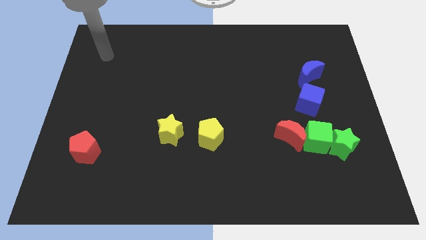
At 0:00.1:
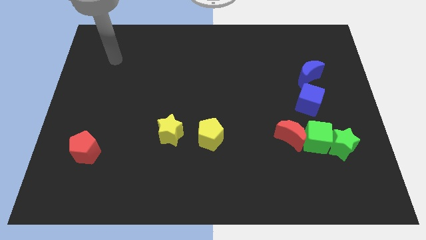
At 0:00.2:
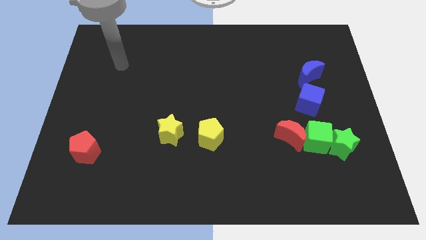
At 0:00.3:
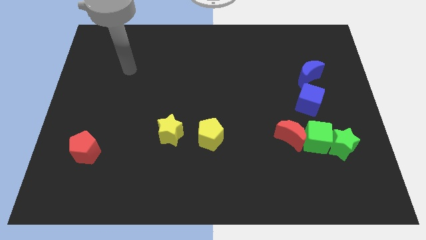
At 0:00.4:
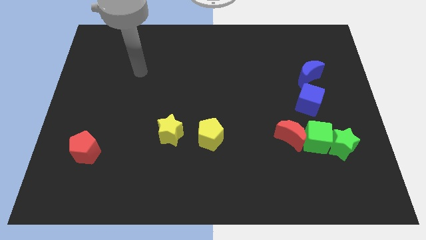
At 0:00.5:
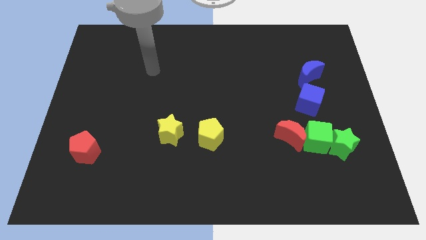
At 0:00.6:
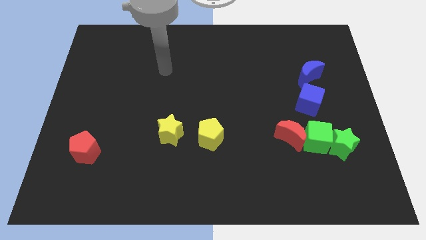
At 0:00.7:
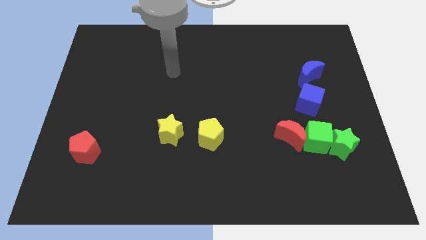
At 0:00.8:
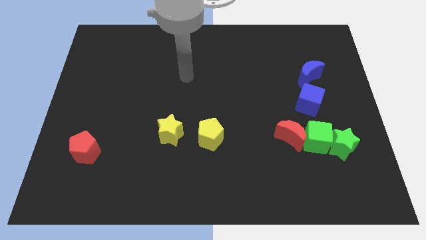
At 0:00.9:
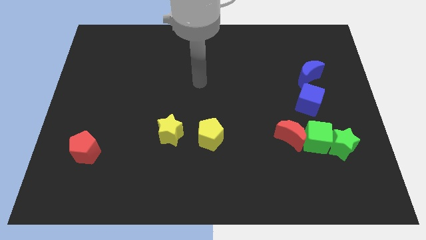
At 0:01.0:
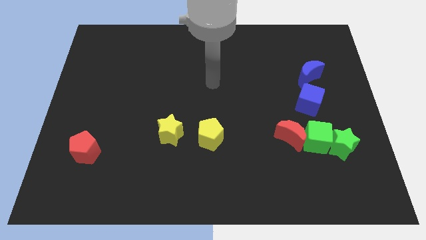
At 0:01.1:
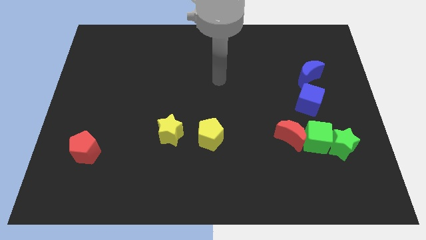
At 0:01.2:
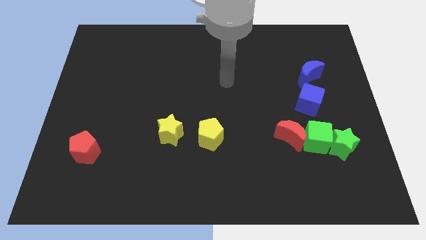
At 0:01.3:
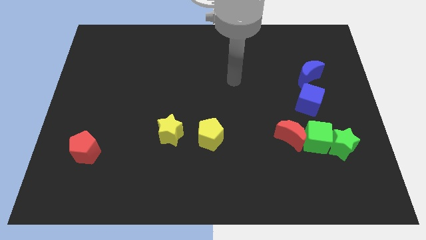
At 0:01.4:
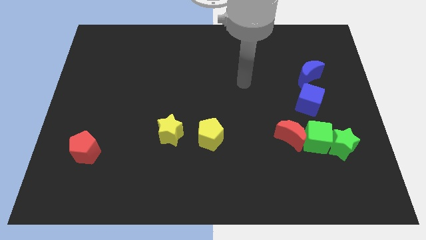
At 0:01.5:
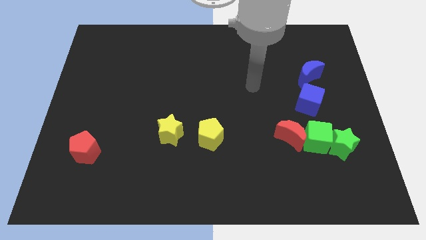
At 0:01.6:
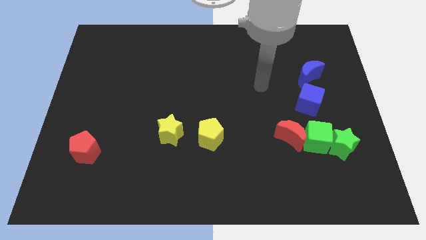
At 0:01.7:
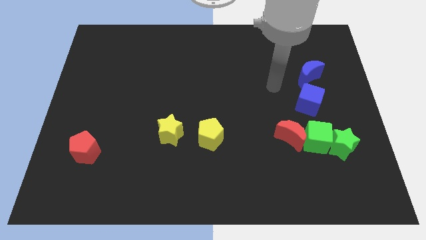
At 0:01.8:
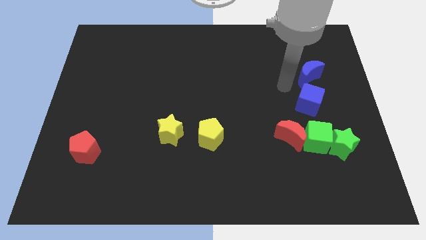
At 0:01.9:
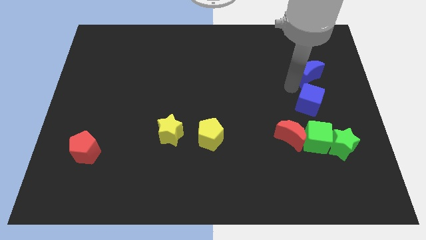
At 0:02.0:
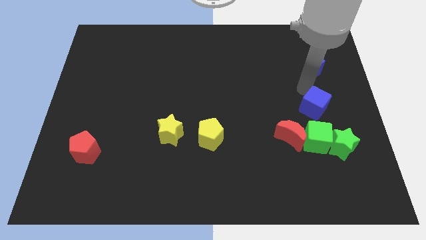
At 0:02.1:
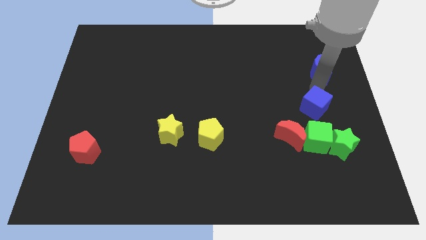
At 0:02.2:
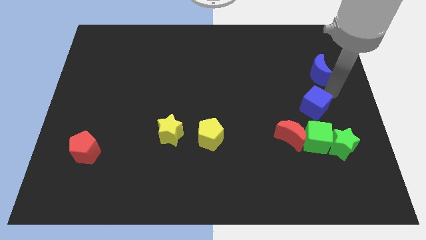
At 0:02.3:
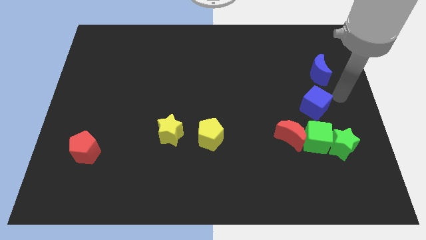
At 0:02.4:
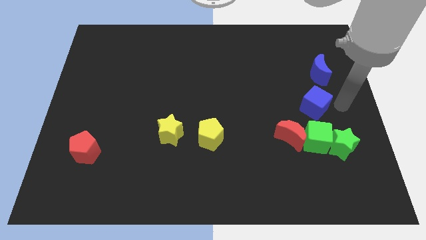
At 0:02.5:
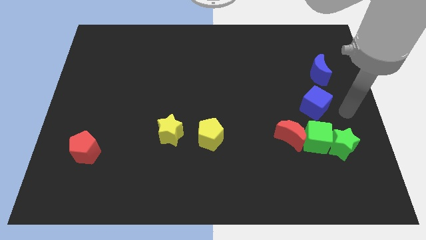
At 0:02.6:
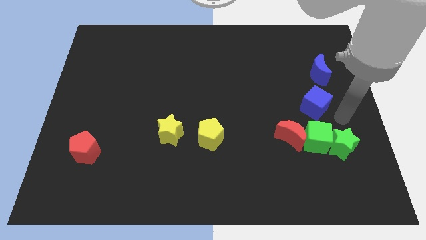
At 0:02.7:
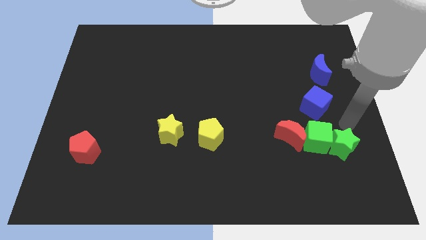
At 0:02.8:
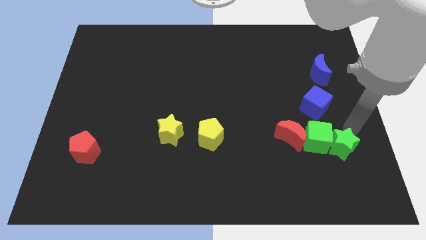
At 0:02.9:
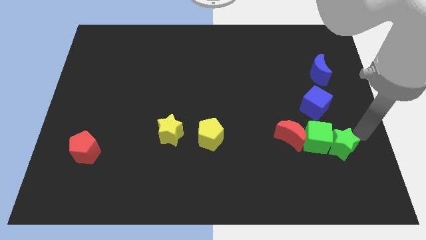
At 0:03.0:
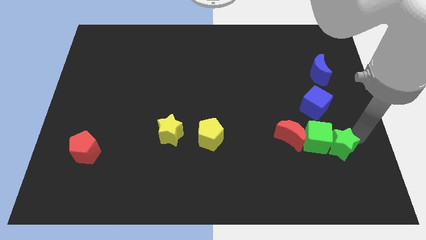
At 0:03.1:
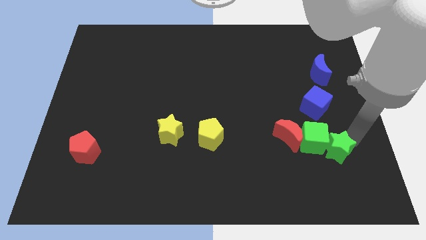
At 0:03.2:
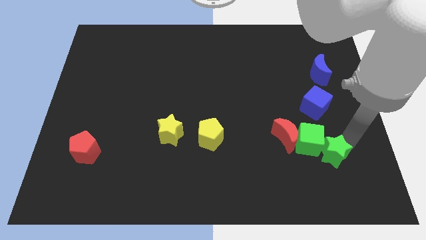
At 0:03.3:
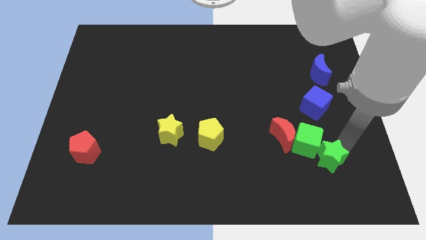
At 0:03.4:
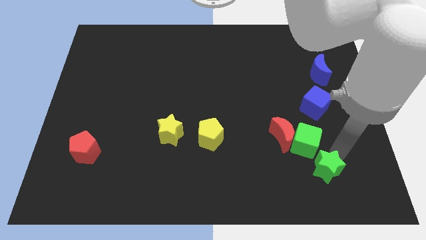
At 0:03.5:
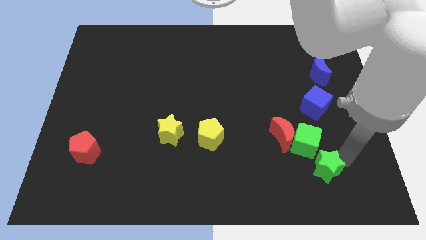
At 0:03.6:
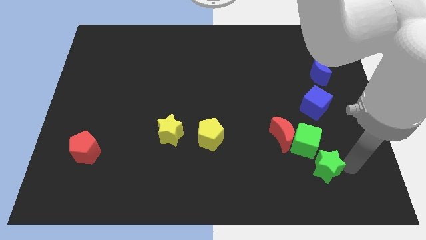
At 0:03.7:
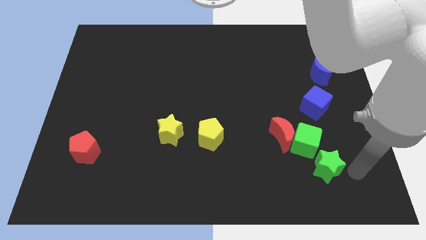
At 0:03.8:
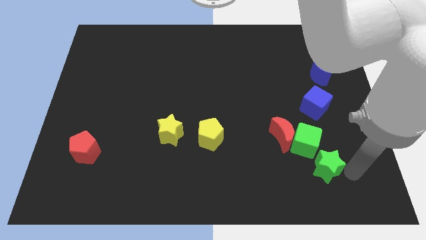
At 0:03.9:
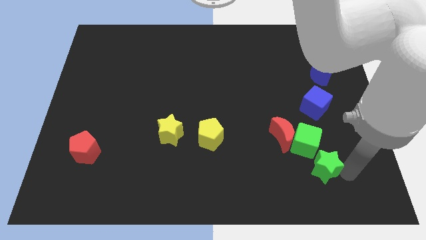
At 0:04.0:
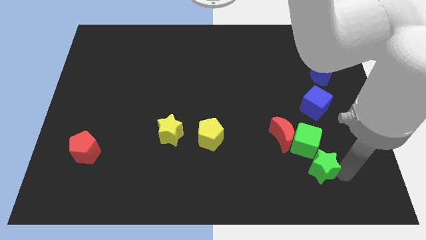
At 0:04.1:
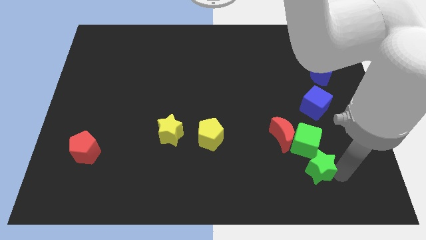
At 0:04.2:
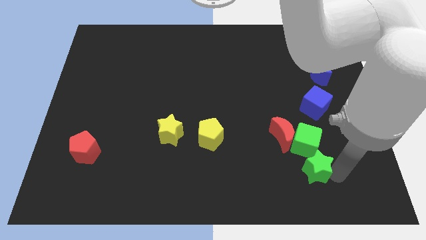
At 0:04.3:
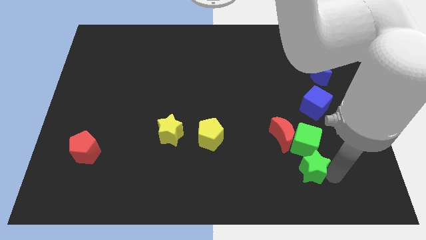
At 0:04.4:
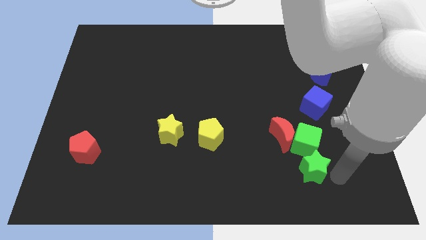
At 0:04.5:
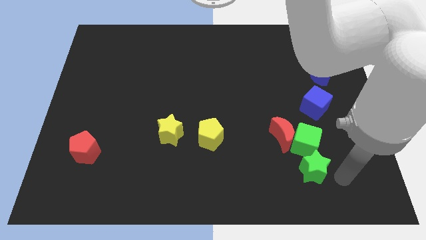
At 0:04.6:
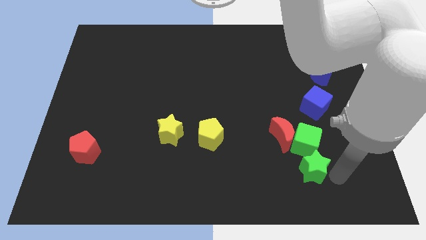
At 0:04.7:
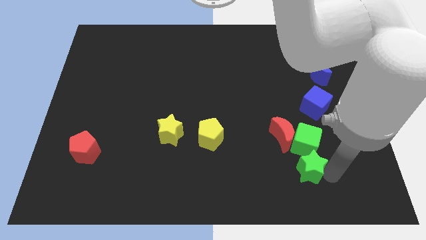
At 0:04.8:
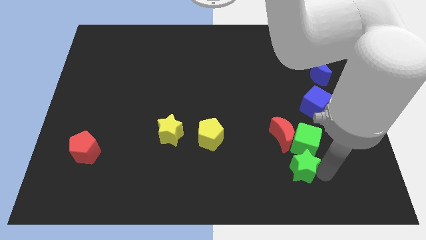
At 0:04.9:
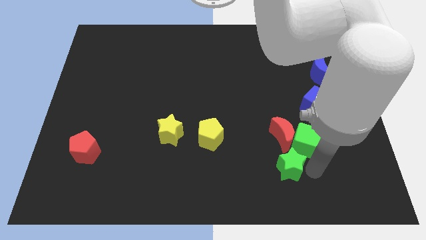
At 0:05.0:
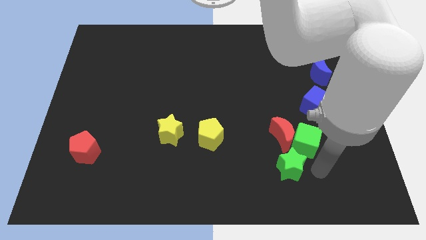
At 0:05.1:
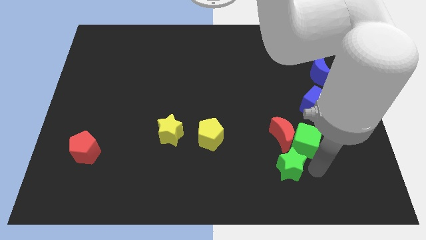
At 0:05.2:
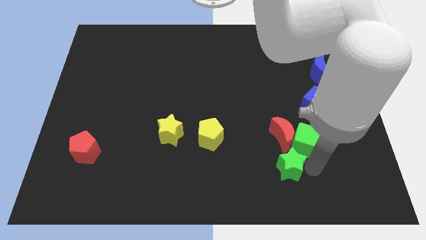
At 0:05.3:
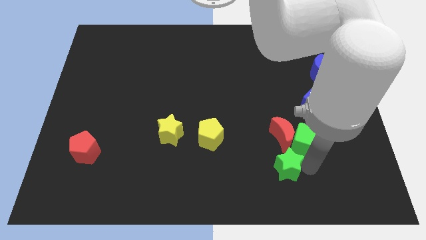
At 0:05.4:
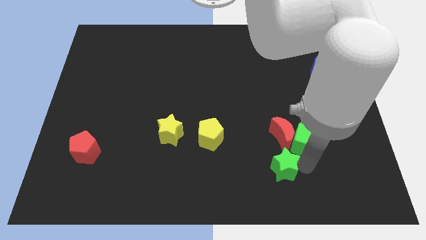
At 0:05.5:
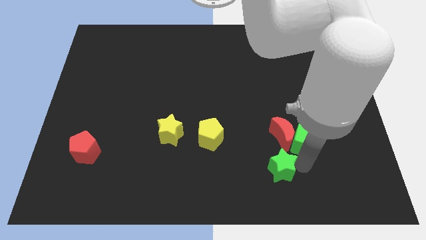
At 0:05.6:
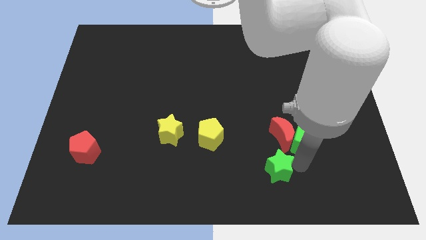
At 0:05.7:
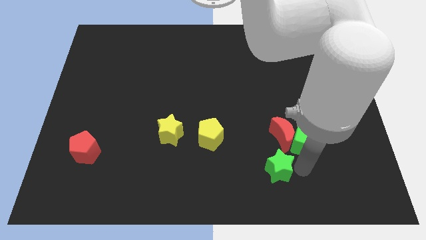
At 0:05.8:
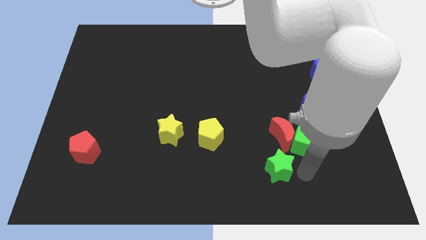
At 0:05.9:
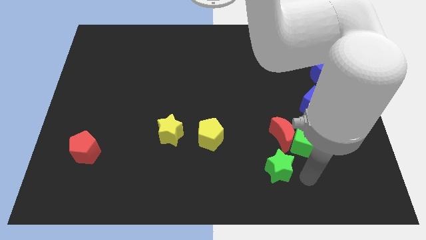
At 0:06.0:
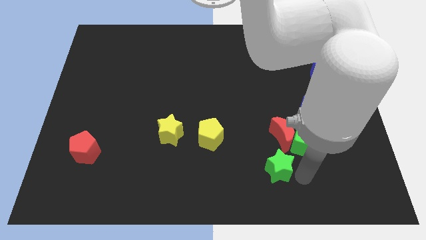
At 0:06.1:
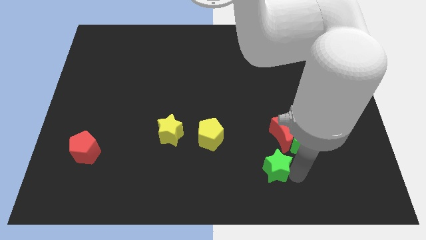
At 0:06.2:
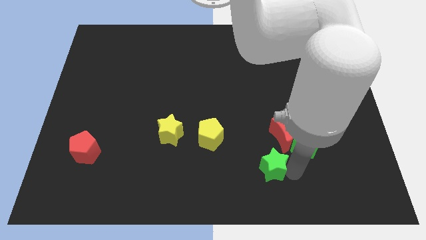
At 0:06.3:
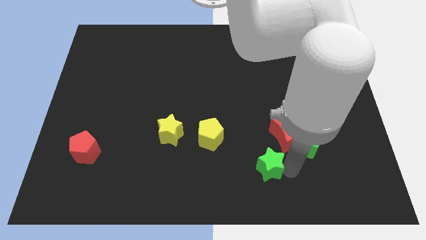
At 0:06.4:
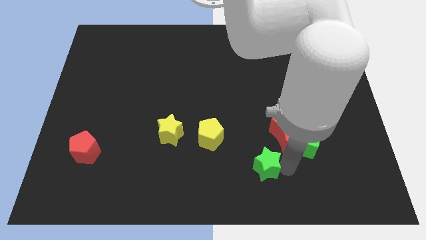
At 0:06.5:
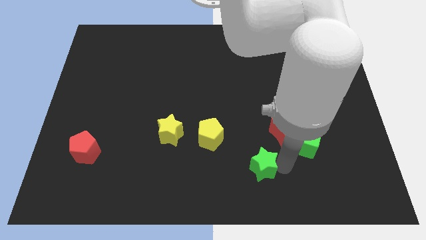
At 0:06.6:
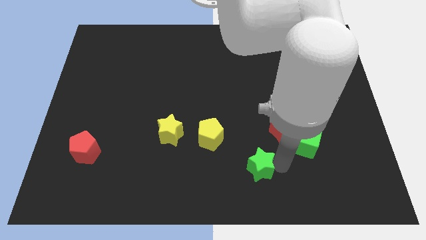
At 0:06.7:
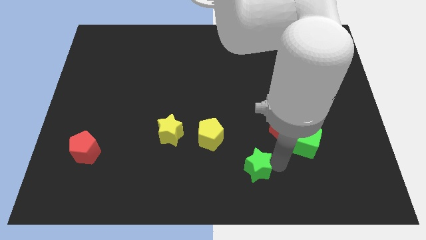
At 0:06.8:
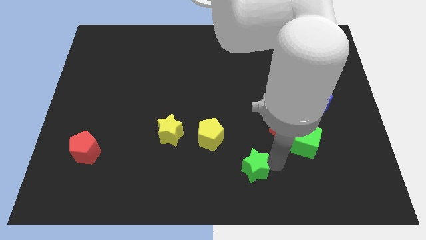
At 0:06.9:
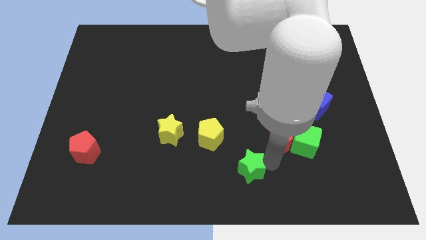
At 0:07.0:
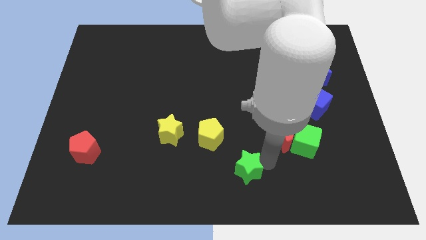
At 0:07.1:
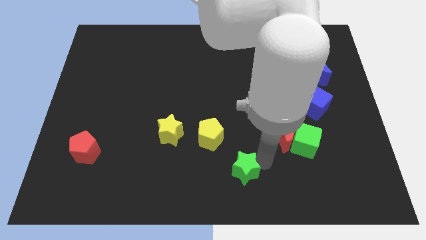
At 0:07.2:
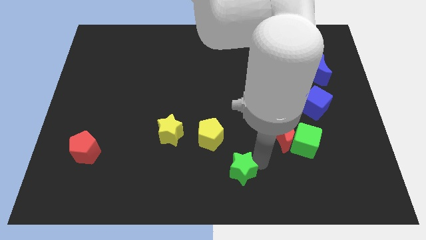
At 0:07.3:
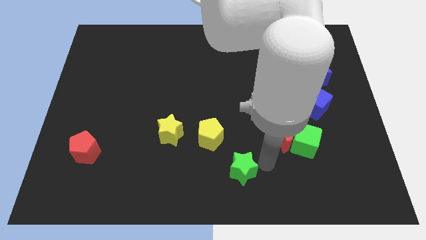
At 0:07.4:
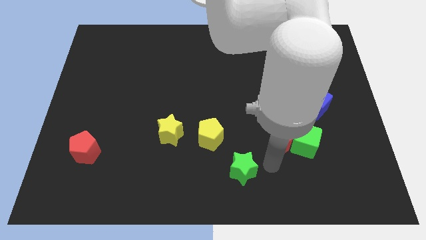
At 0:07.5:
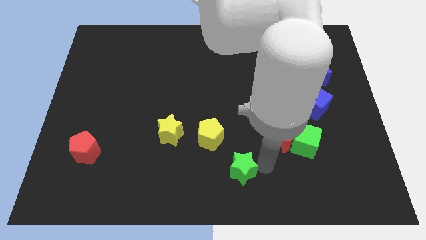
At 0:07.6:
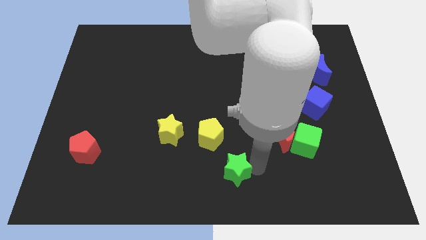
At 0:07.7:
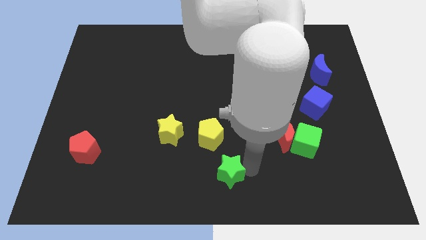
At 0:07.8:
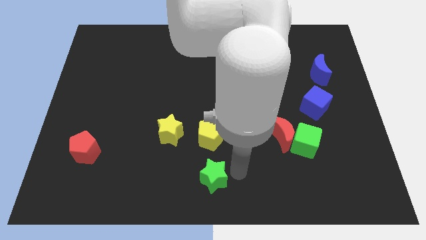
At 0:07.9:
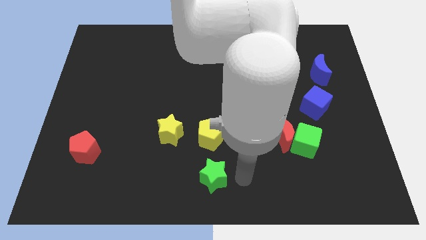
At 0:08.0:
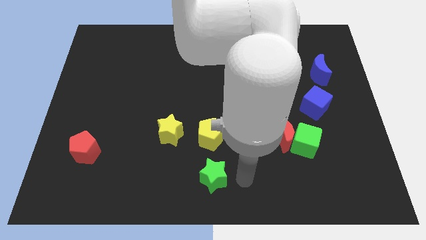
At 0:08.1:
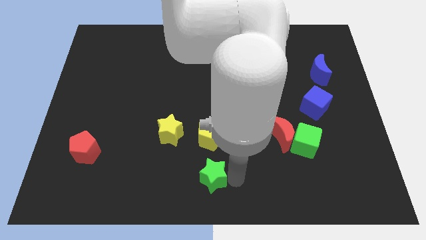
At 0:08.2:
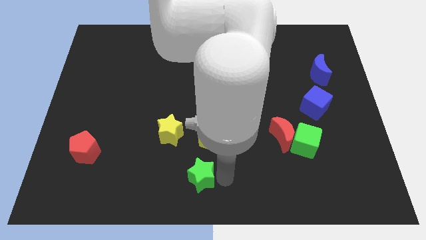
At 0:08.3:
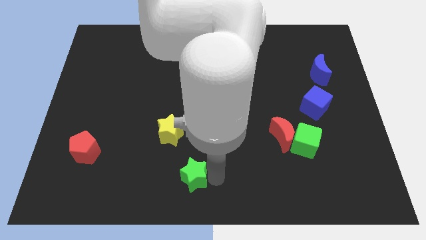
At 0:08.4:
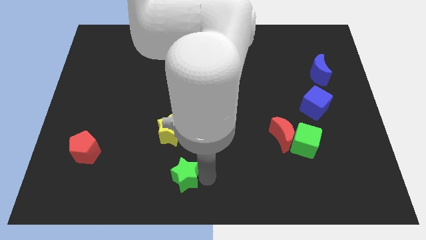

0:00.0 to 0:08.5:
slide the green star to the bottom of the yellow star
